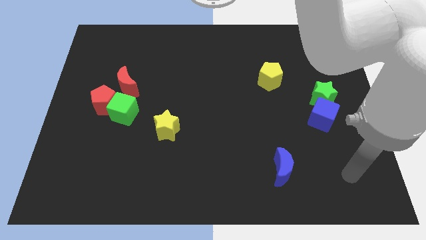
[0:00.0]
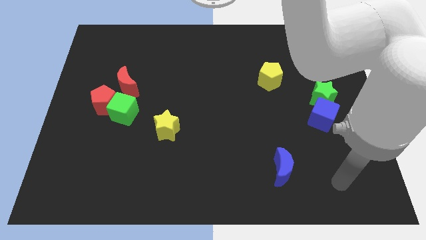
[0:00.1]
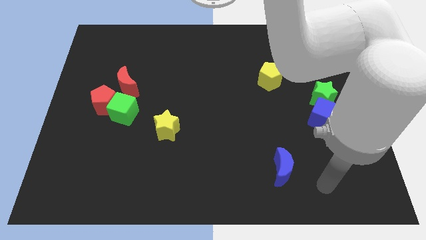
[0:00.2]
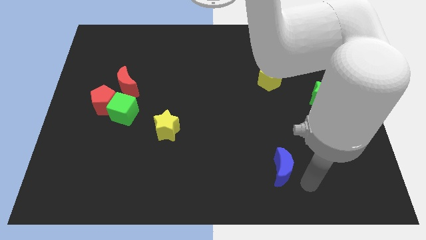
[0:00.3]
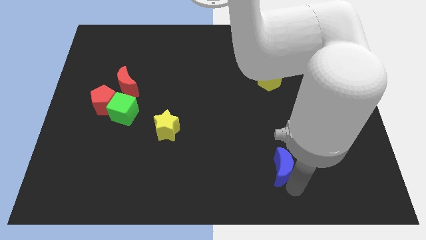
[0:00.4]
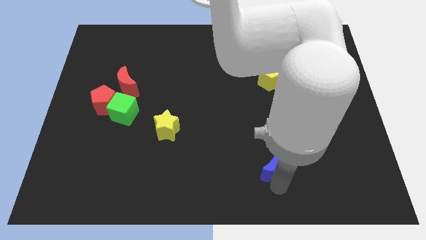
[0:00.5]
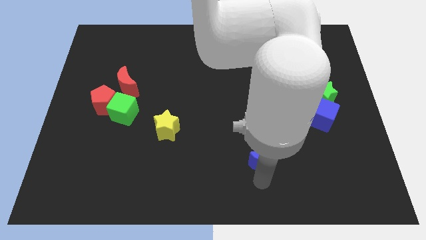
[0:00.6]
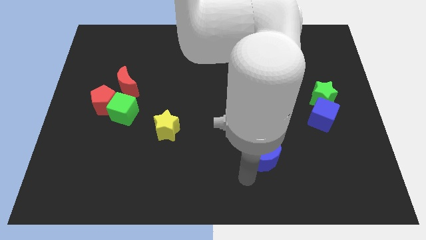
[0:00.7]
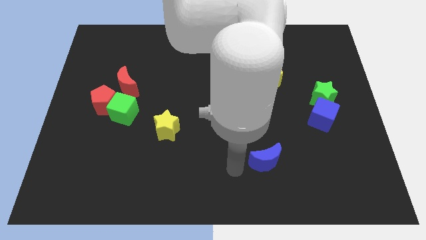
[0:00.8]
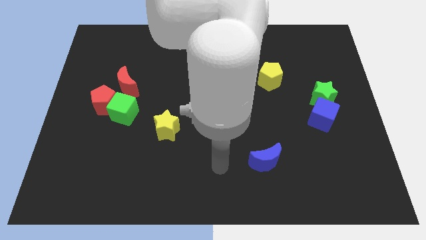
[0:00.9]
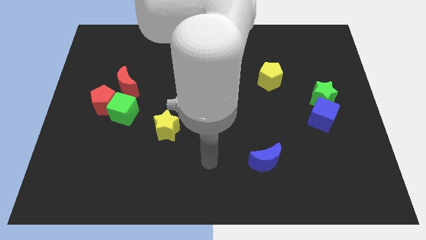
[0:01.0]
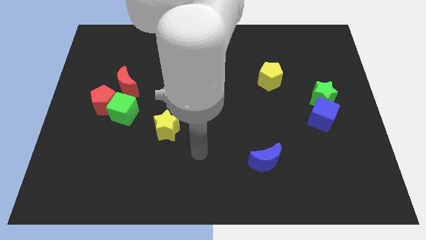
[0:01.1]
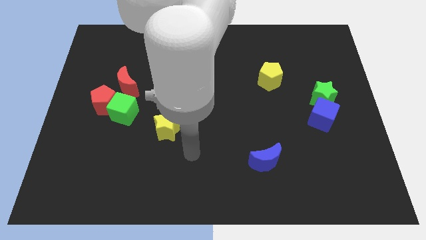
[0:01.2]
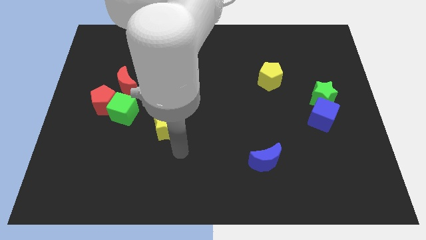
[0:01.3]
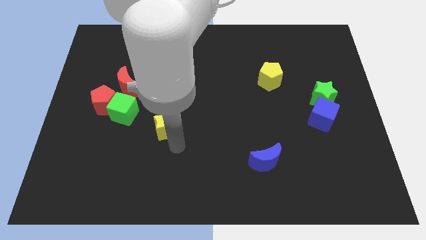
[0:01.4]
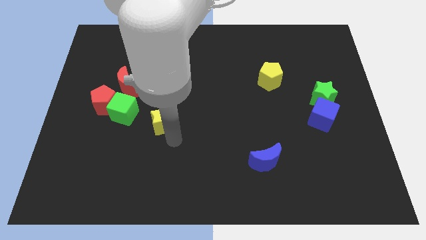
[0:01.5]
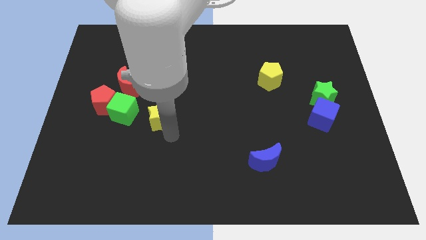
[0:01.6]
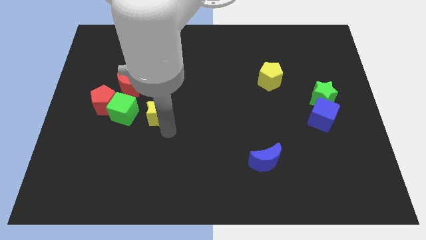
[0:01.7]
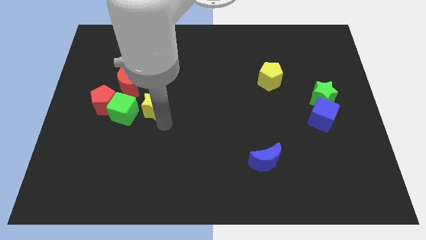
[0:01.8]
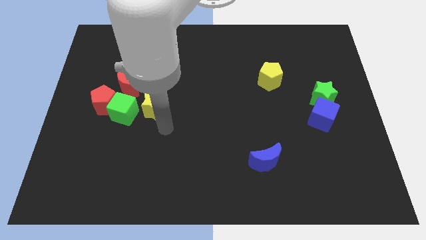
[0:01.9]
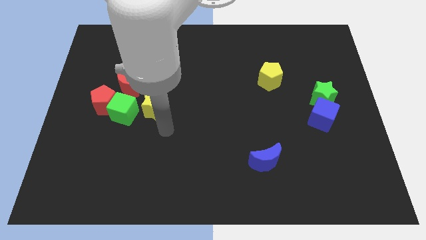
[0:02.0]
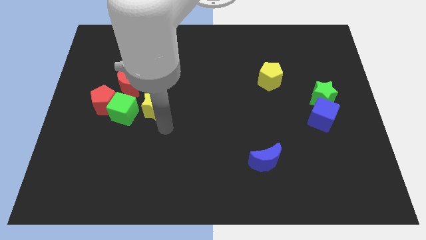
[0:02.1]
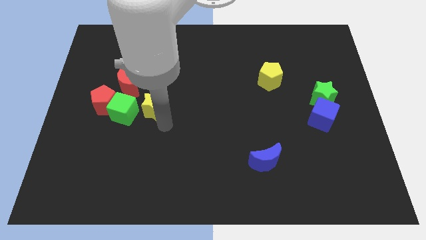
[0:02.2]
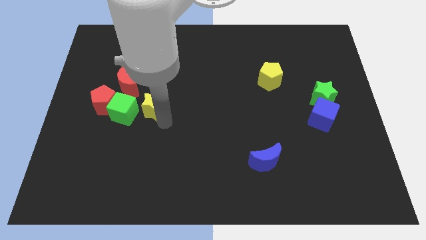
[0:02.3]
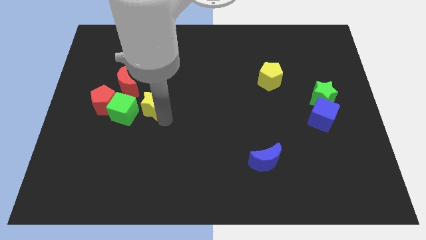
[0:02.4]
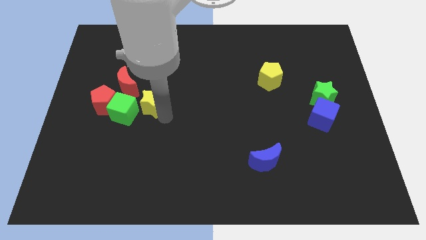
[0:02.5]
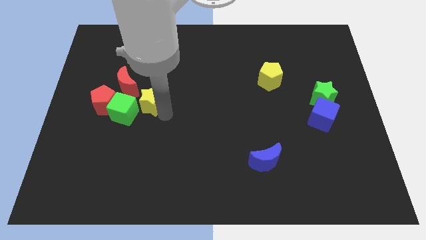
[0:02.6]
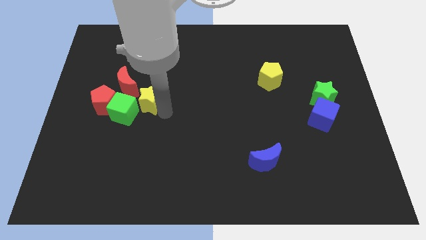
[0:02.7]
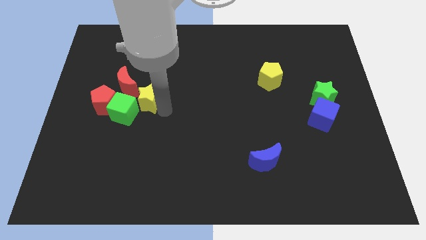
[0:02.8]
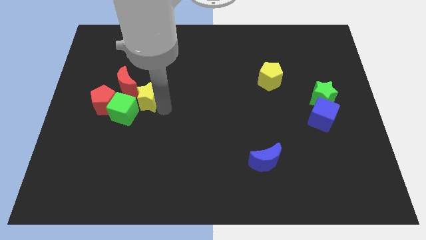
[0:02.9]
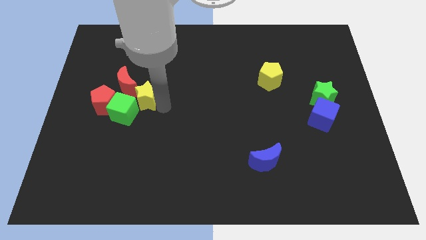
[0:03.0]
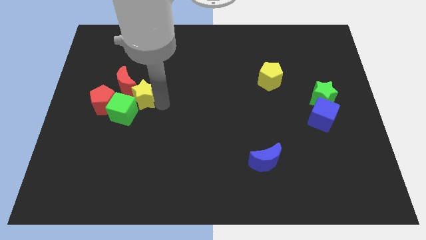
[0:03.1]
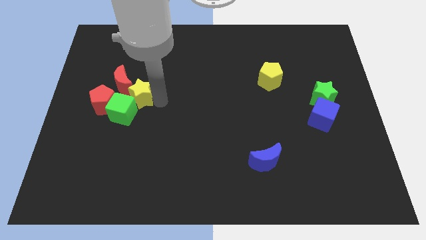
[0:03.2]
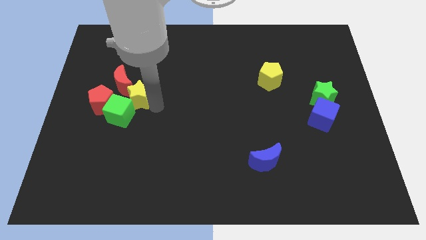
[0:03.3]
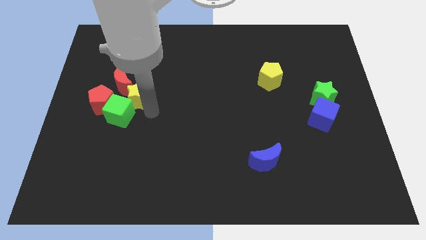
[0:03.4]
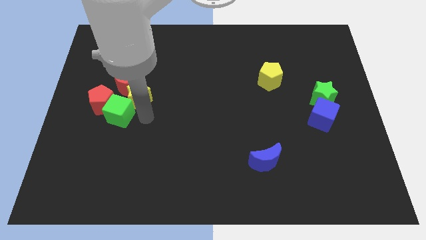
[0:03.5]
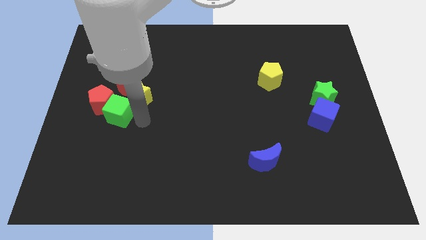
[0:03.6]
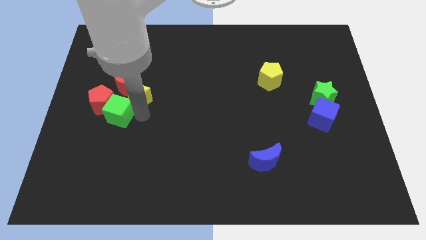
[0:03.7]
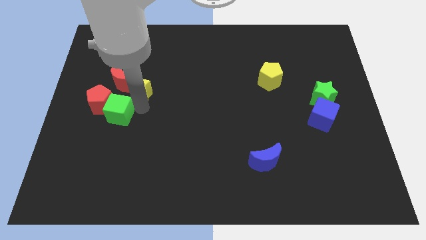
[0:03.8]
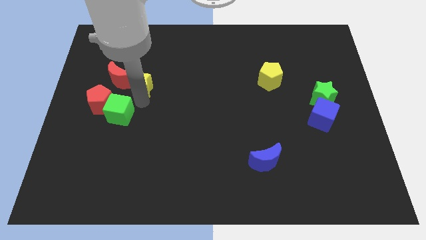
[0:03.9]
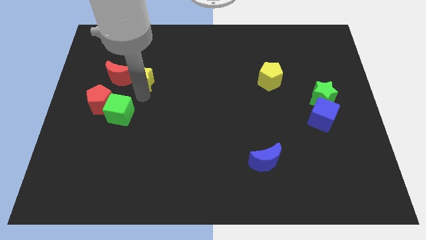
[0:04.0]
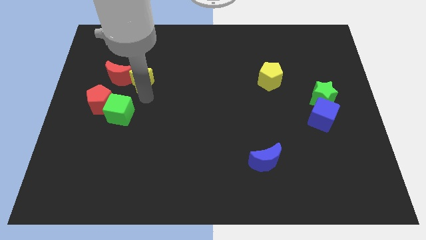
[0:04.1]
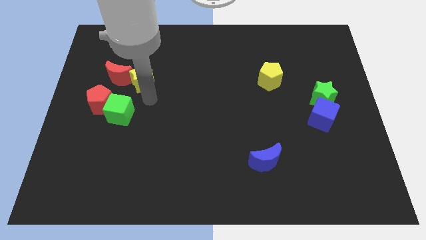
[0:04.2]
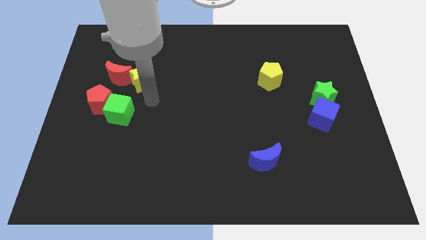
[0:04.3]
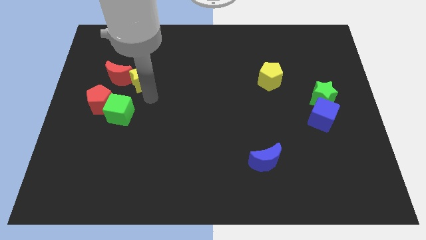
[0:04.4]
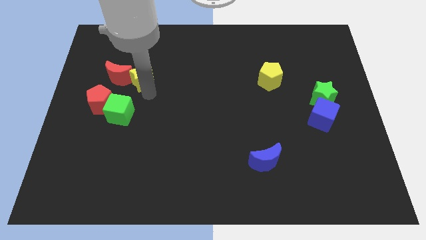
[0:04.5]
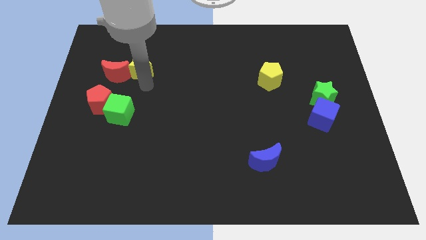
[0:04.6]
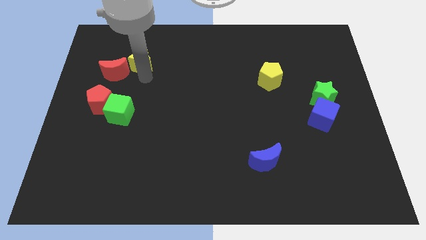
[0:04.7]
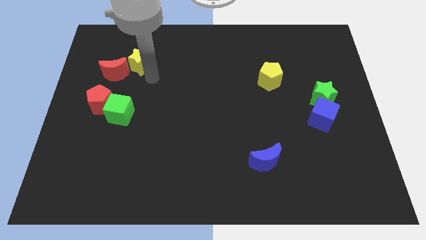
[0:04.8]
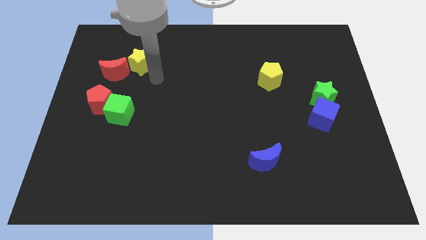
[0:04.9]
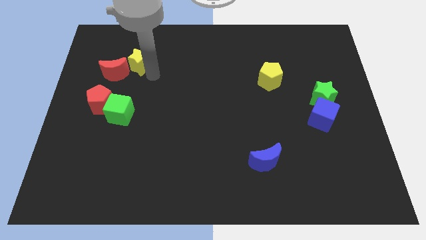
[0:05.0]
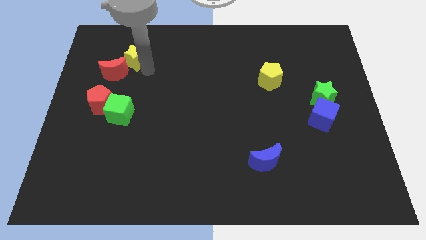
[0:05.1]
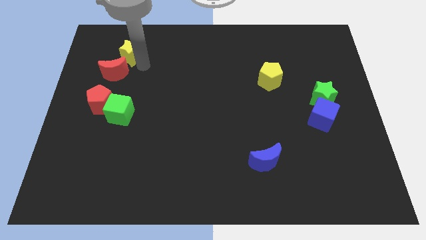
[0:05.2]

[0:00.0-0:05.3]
slide the yellow star above the red moon

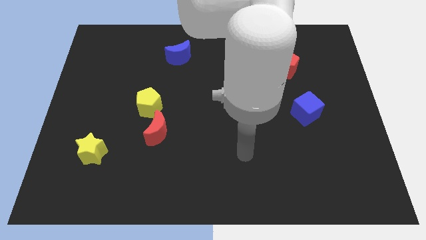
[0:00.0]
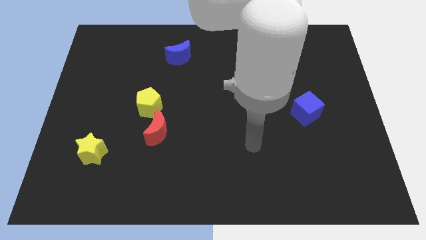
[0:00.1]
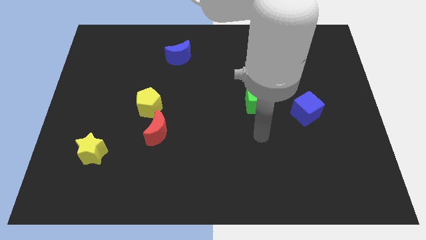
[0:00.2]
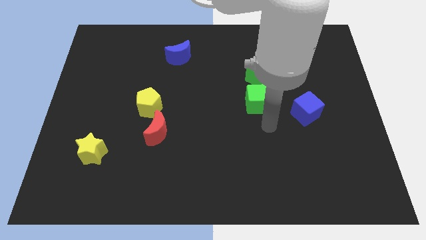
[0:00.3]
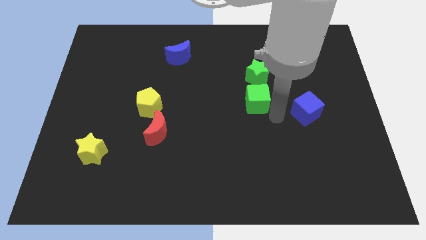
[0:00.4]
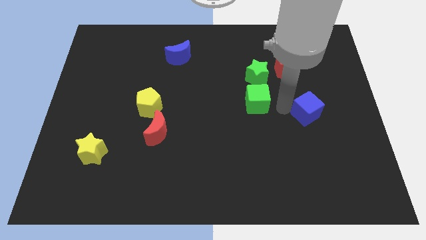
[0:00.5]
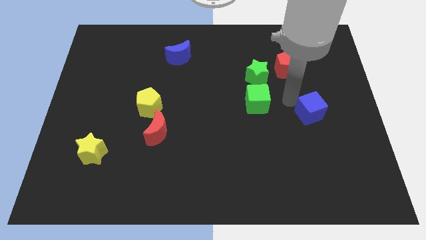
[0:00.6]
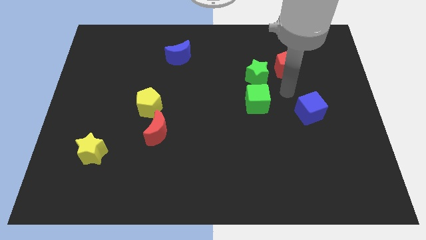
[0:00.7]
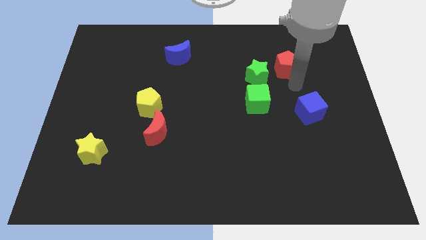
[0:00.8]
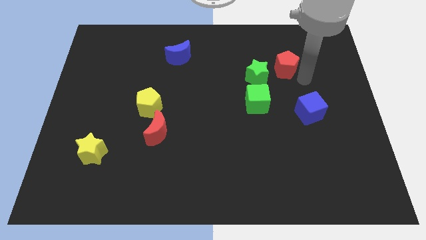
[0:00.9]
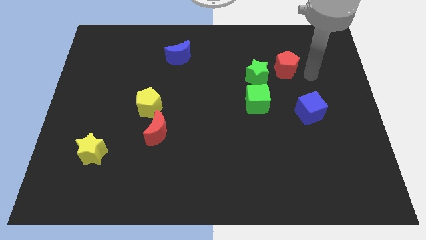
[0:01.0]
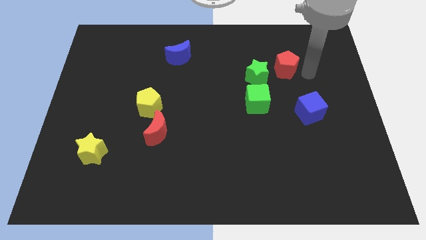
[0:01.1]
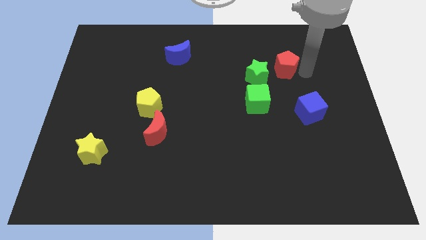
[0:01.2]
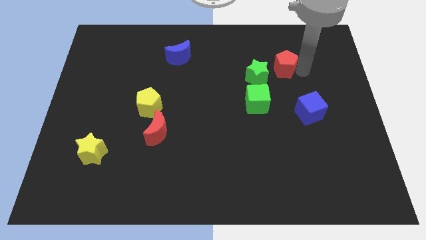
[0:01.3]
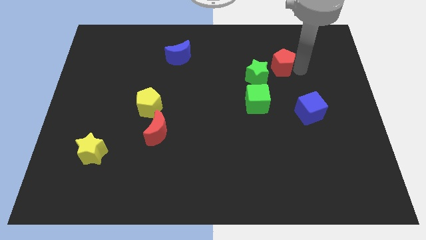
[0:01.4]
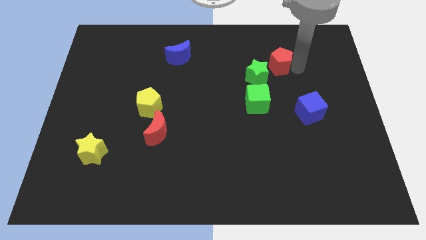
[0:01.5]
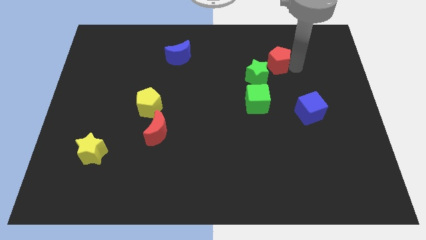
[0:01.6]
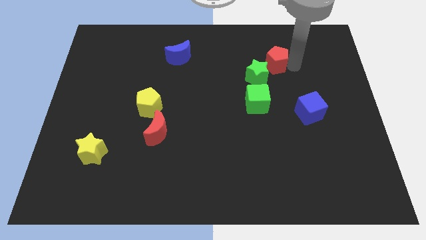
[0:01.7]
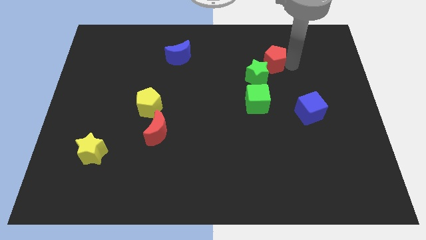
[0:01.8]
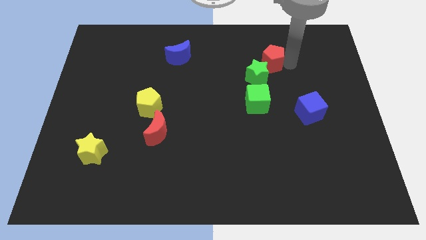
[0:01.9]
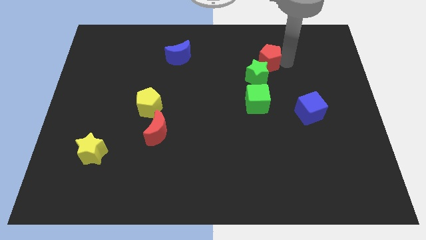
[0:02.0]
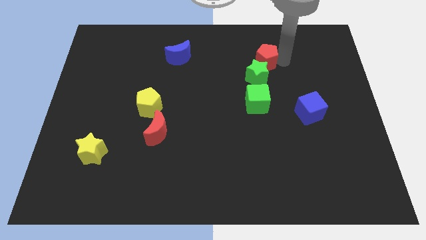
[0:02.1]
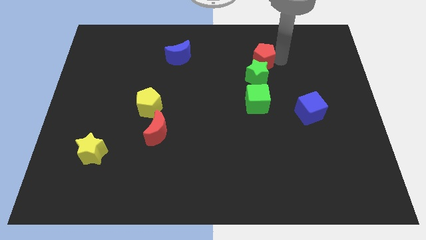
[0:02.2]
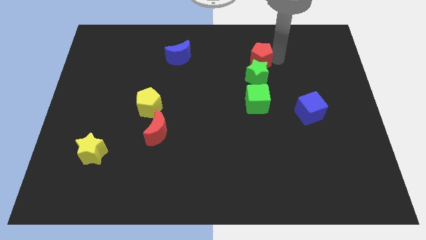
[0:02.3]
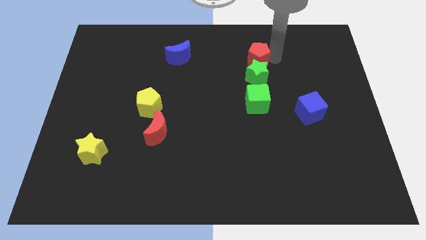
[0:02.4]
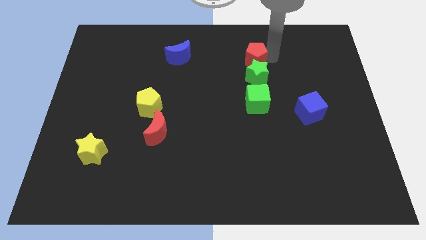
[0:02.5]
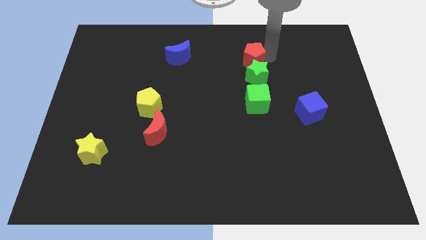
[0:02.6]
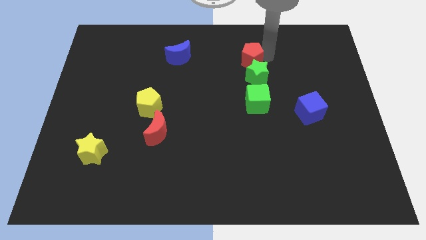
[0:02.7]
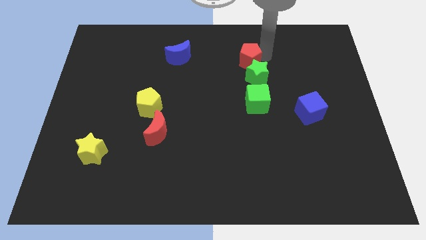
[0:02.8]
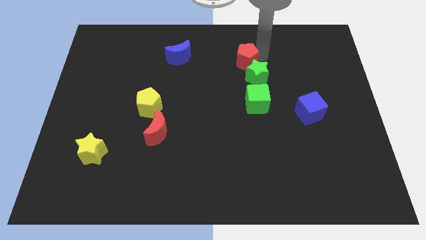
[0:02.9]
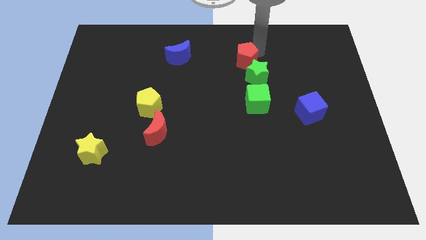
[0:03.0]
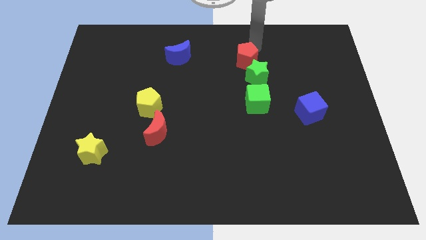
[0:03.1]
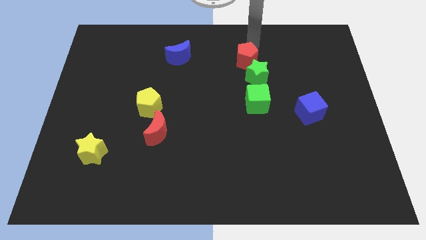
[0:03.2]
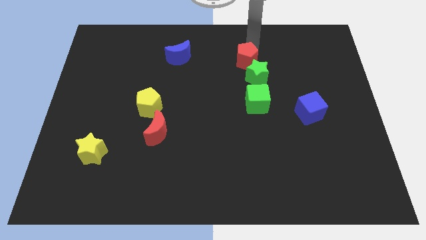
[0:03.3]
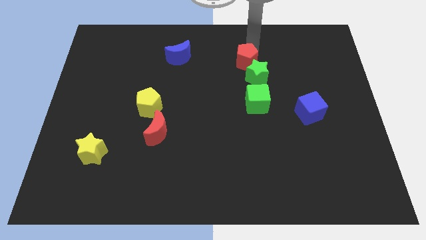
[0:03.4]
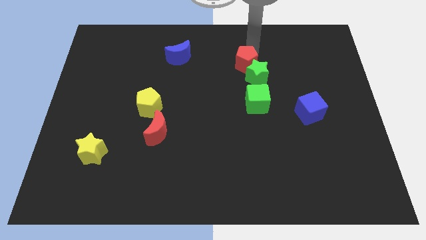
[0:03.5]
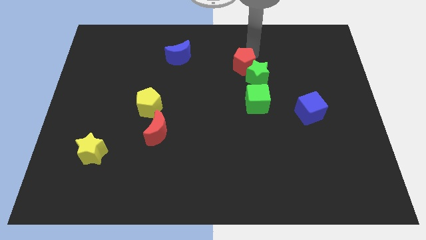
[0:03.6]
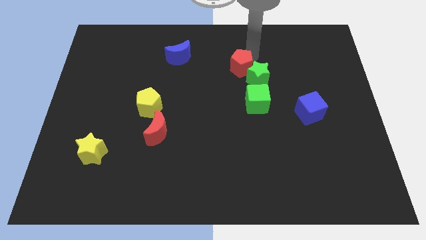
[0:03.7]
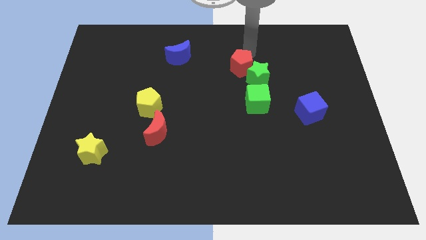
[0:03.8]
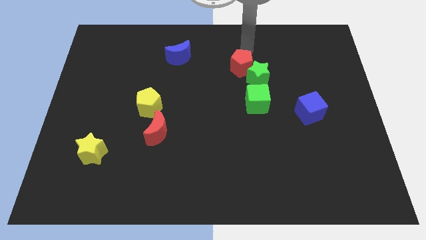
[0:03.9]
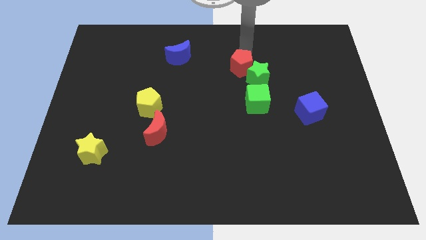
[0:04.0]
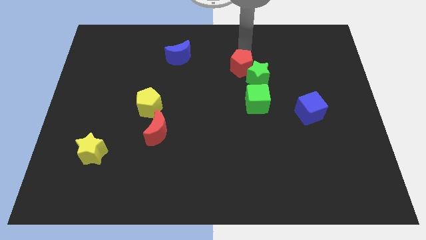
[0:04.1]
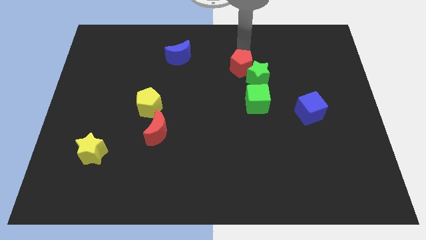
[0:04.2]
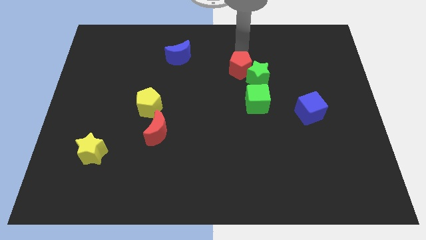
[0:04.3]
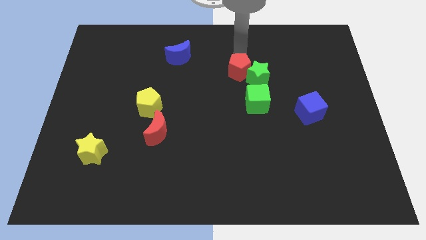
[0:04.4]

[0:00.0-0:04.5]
push the red pentagon to the top left side of the green cube
